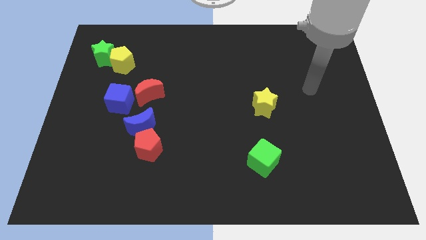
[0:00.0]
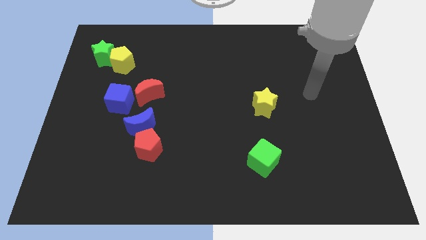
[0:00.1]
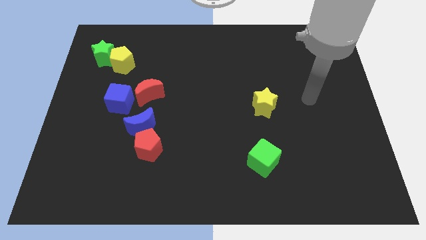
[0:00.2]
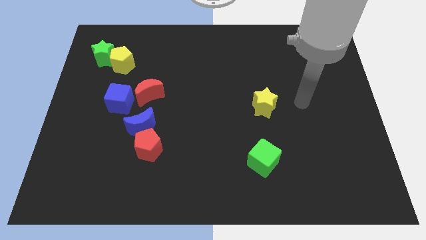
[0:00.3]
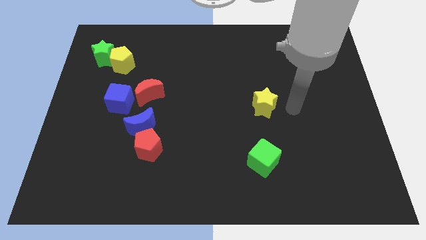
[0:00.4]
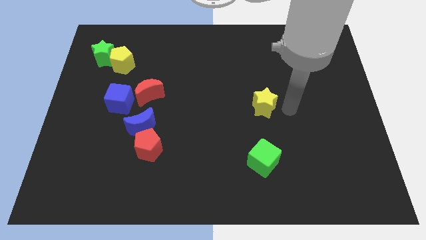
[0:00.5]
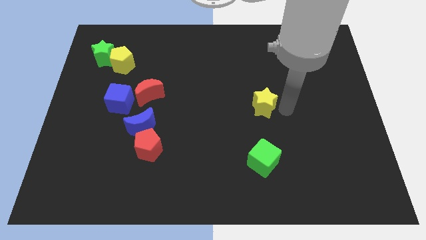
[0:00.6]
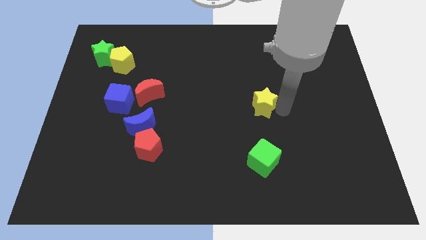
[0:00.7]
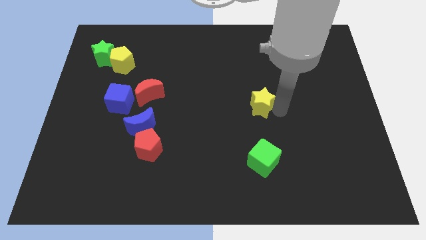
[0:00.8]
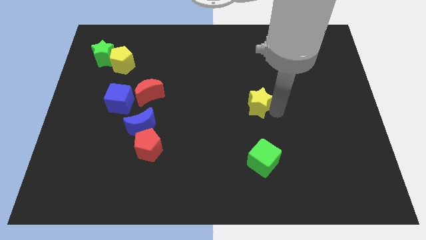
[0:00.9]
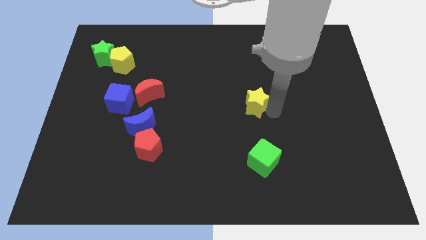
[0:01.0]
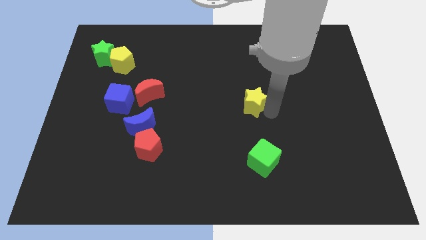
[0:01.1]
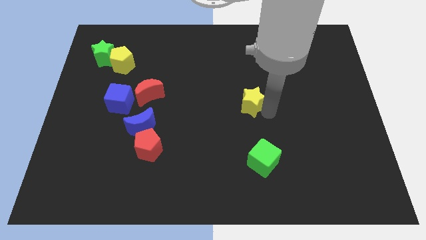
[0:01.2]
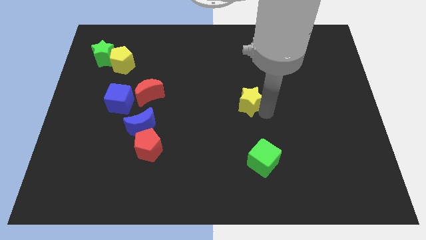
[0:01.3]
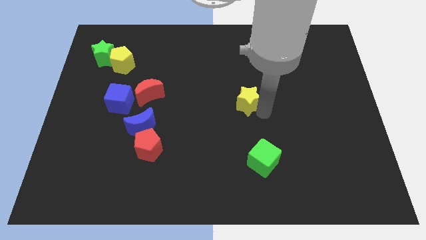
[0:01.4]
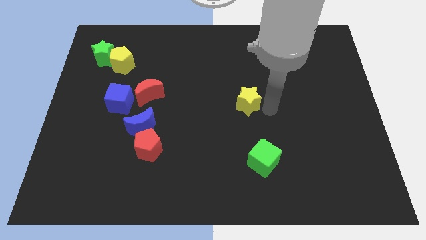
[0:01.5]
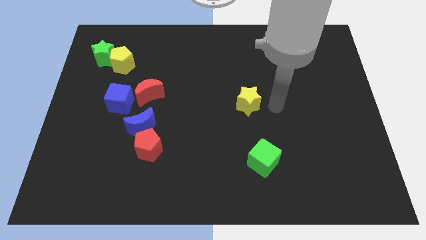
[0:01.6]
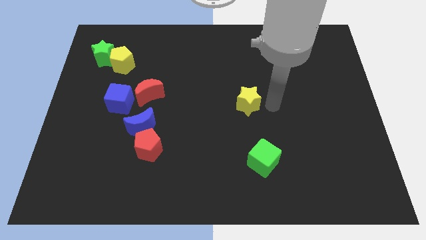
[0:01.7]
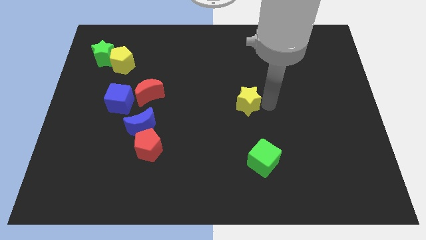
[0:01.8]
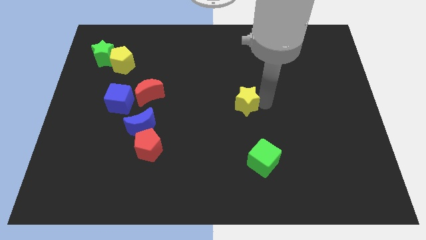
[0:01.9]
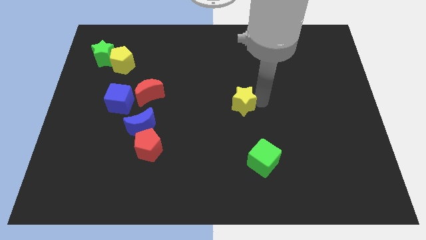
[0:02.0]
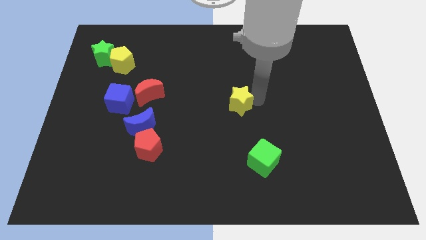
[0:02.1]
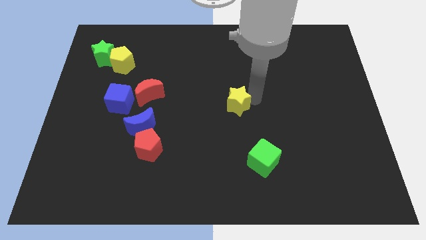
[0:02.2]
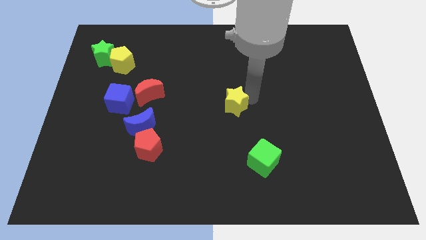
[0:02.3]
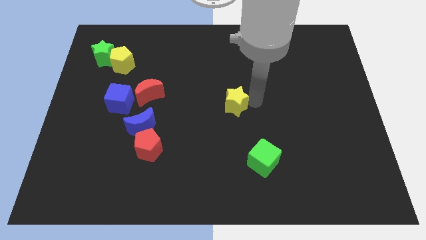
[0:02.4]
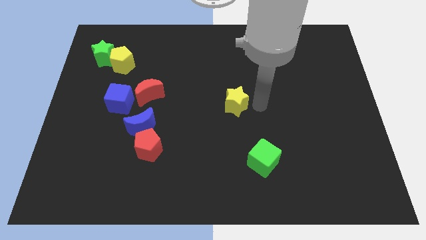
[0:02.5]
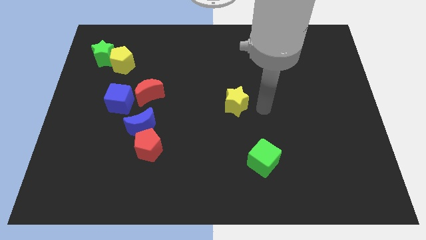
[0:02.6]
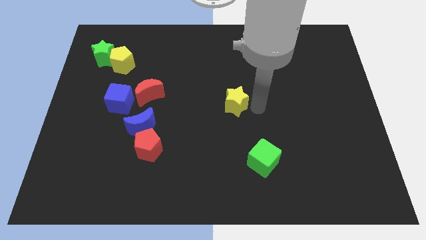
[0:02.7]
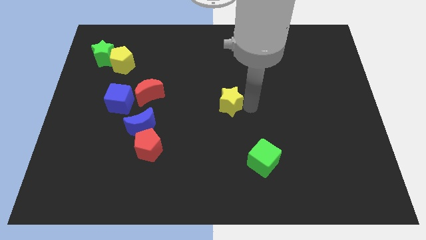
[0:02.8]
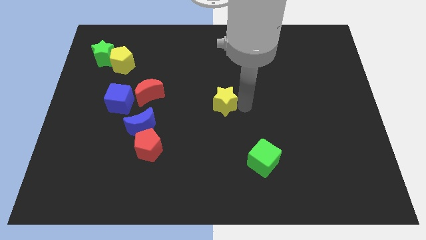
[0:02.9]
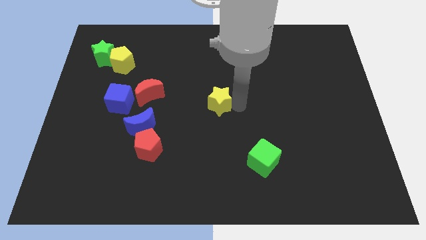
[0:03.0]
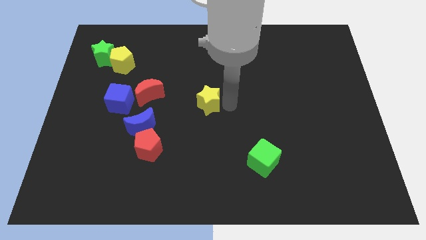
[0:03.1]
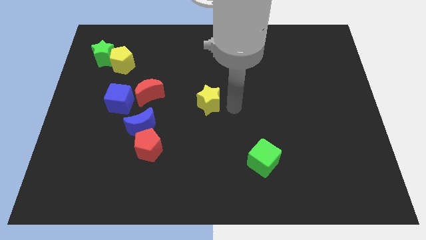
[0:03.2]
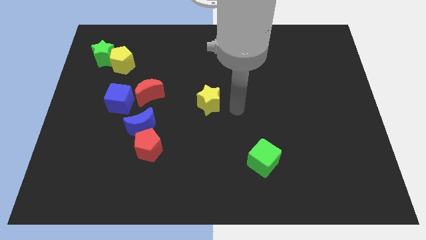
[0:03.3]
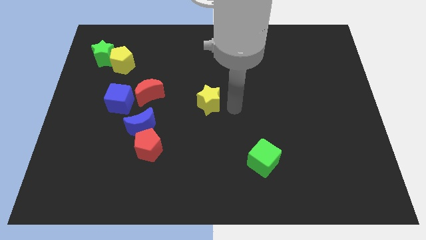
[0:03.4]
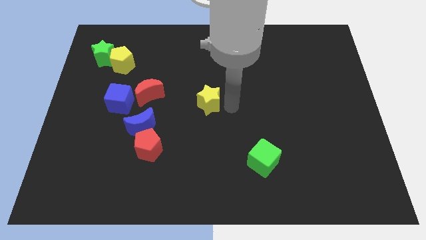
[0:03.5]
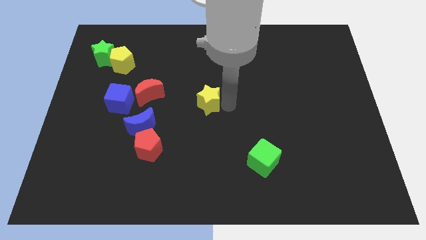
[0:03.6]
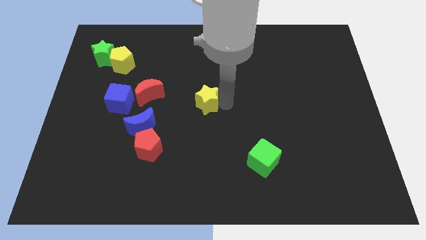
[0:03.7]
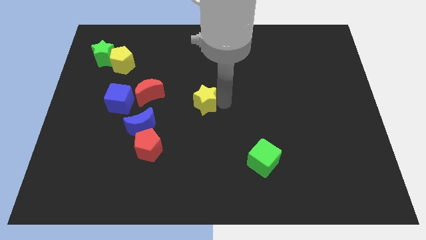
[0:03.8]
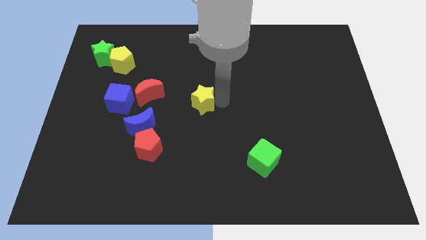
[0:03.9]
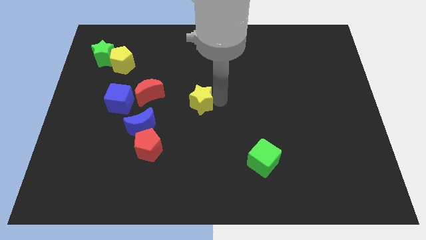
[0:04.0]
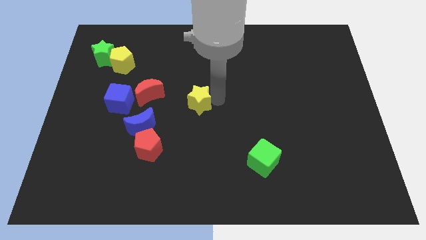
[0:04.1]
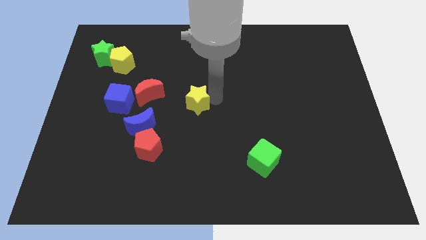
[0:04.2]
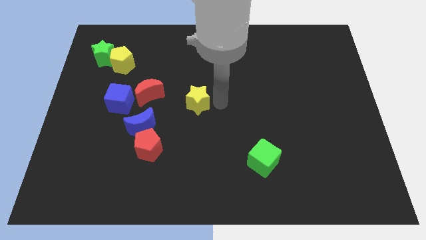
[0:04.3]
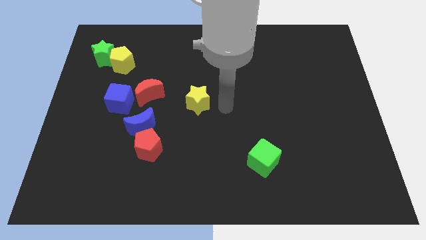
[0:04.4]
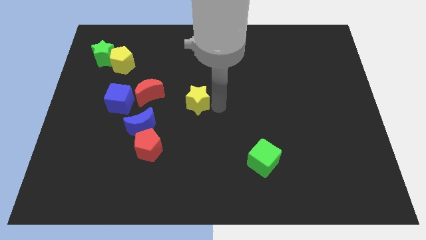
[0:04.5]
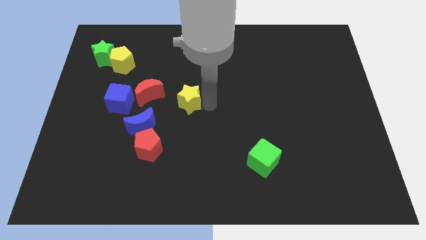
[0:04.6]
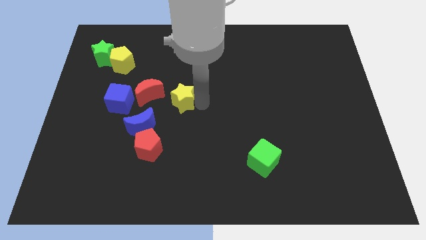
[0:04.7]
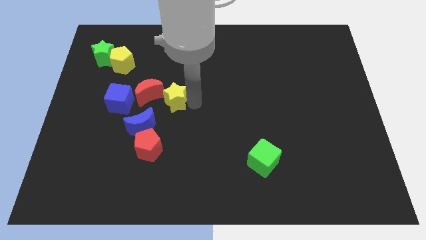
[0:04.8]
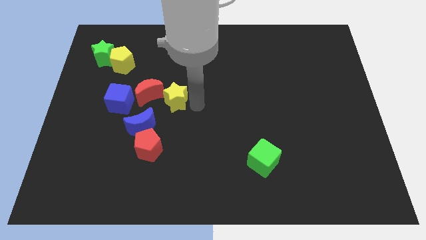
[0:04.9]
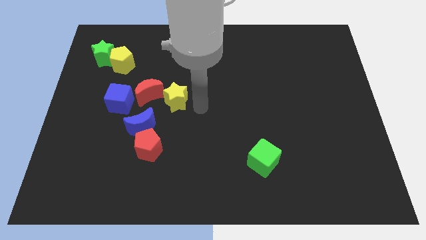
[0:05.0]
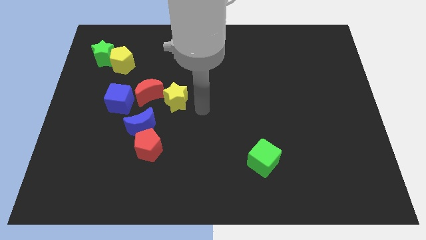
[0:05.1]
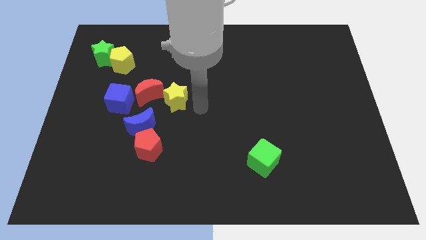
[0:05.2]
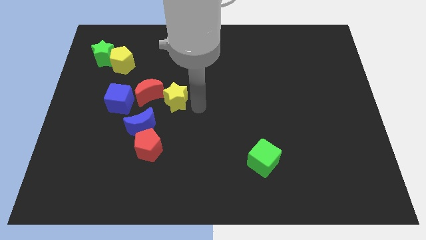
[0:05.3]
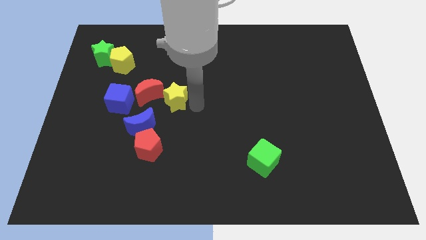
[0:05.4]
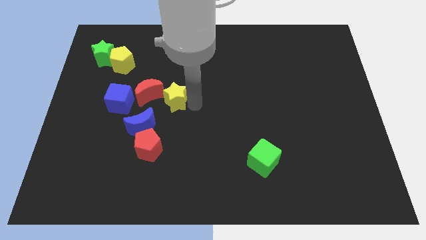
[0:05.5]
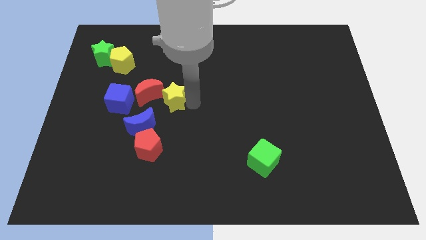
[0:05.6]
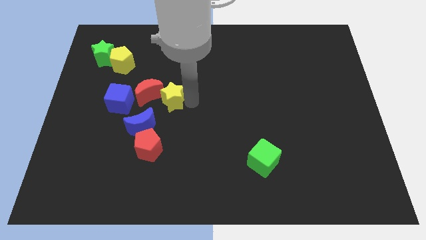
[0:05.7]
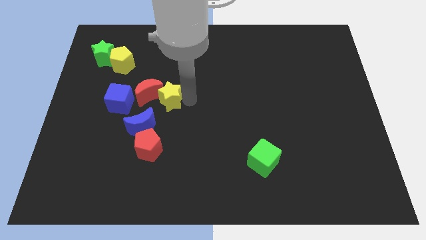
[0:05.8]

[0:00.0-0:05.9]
slide the yellow star to the red moon

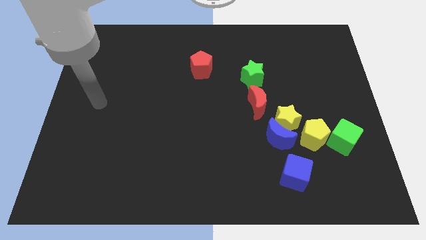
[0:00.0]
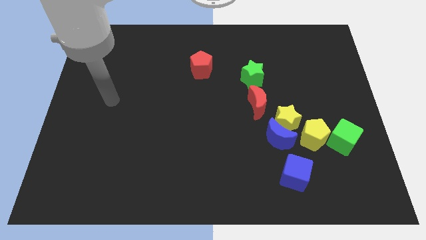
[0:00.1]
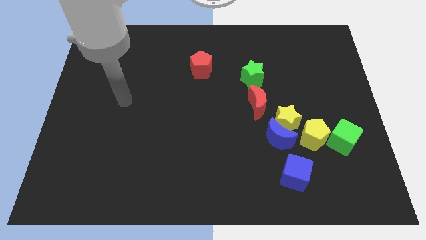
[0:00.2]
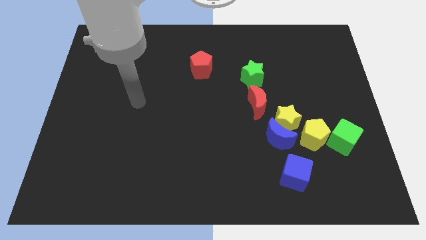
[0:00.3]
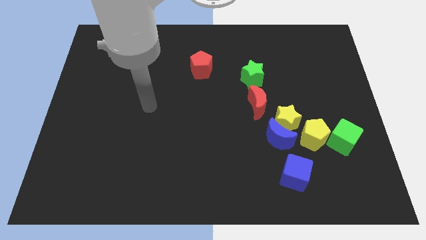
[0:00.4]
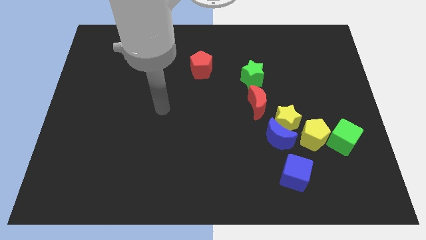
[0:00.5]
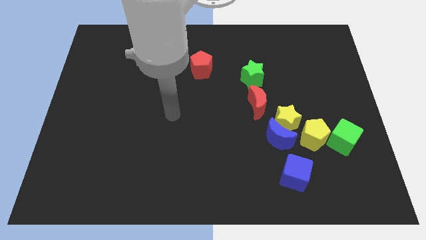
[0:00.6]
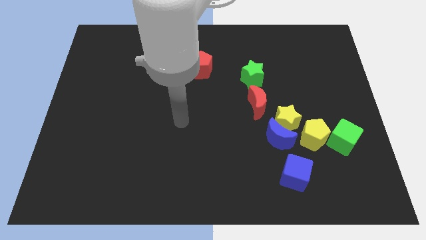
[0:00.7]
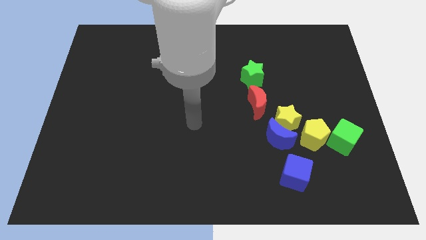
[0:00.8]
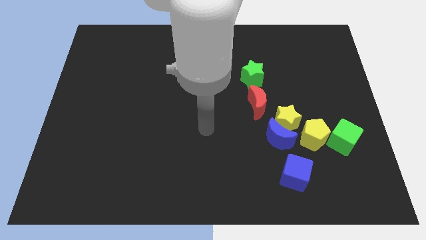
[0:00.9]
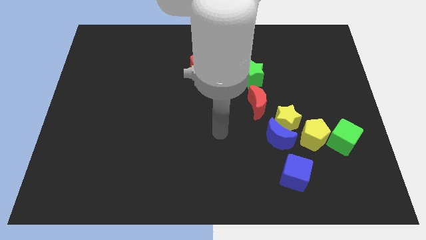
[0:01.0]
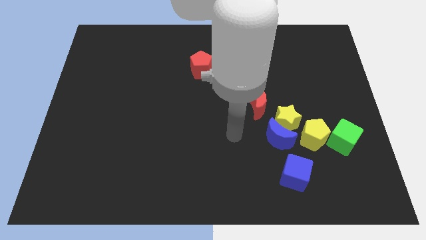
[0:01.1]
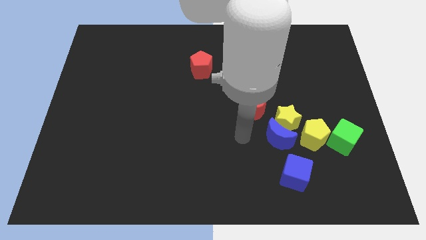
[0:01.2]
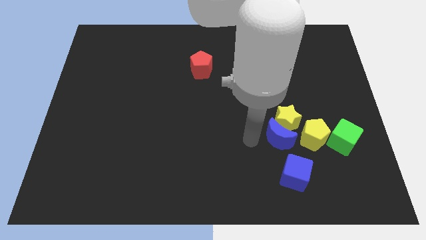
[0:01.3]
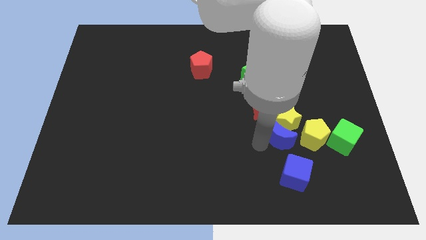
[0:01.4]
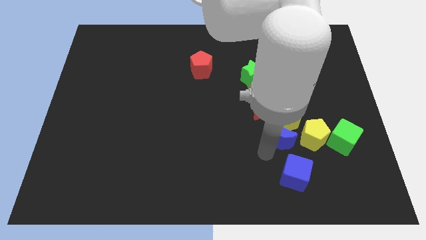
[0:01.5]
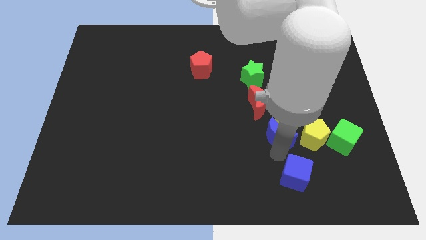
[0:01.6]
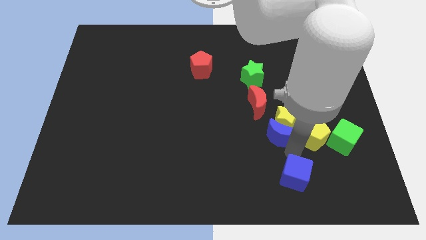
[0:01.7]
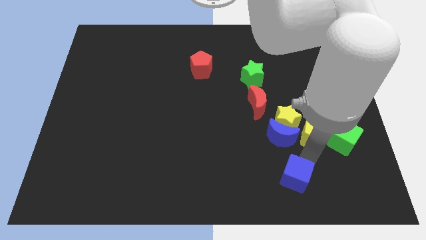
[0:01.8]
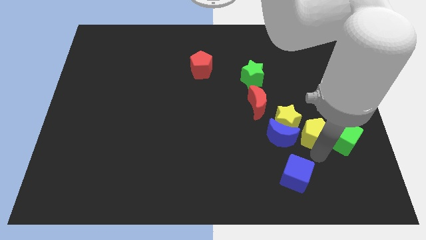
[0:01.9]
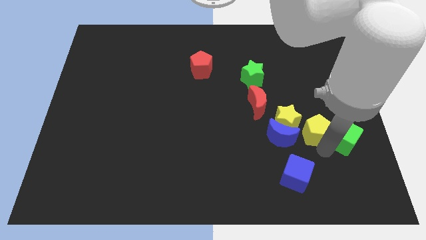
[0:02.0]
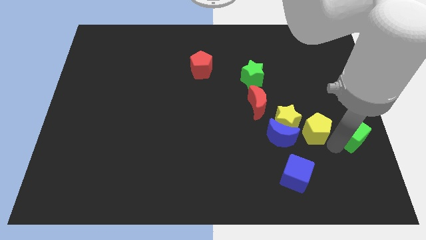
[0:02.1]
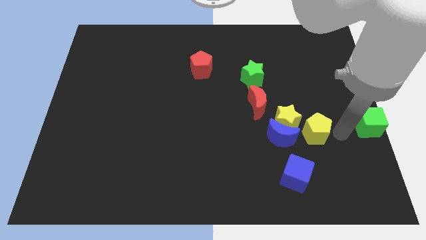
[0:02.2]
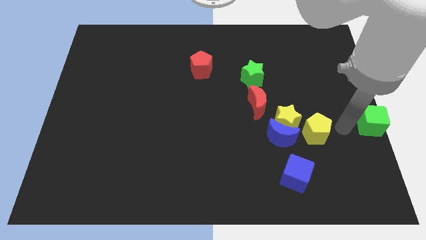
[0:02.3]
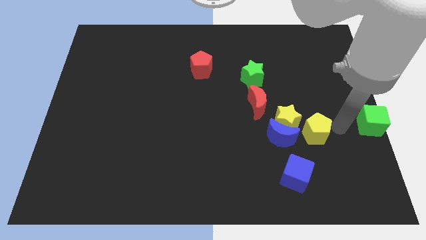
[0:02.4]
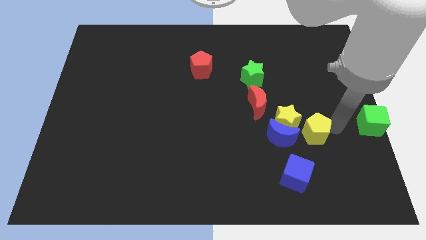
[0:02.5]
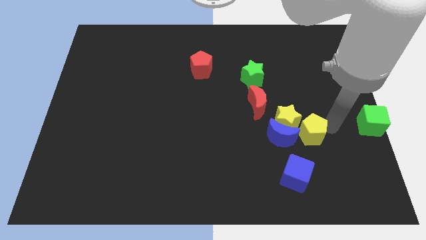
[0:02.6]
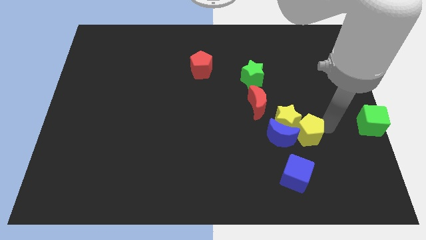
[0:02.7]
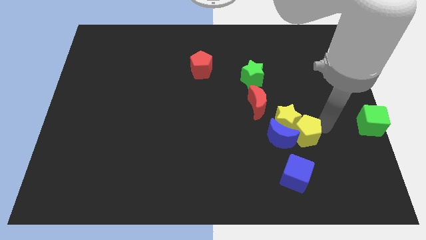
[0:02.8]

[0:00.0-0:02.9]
move the yellow pentagon towards the blue moon
